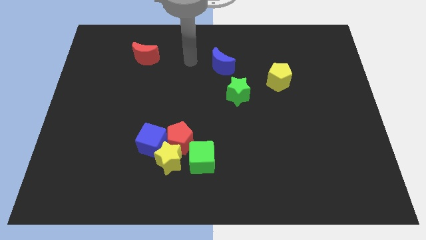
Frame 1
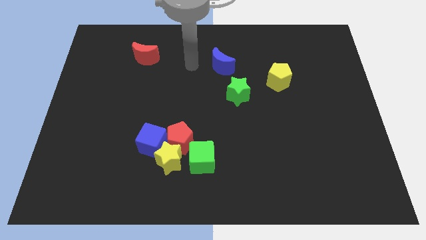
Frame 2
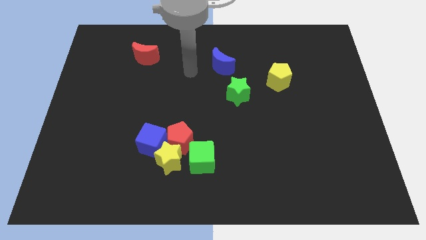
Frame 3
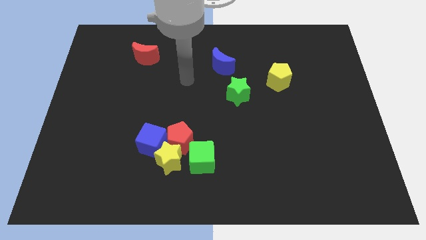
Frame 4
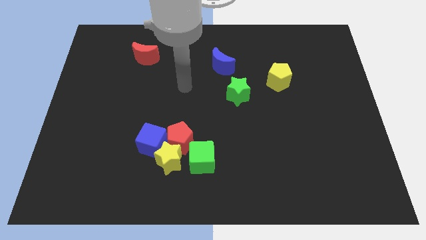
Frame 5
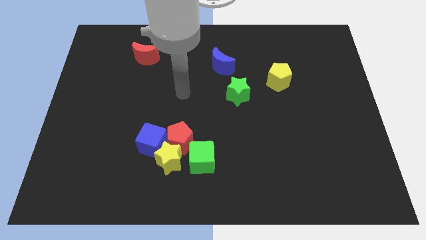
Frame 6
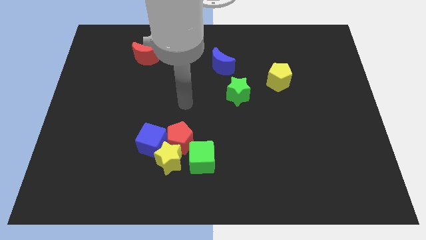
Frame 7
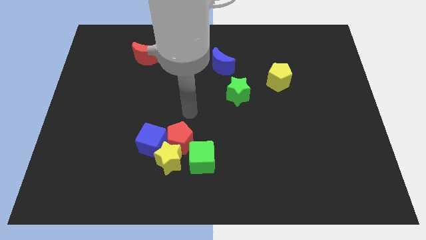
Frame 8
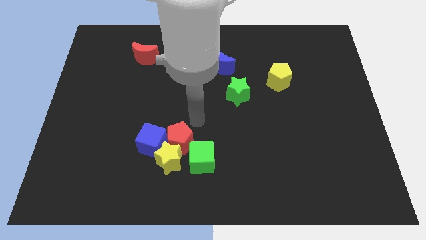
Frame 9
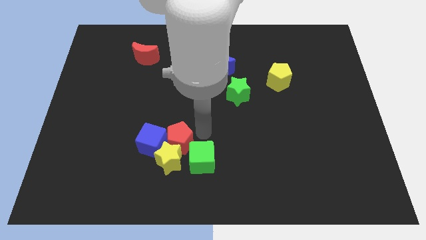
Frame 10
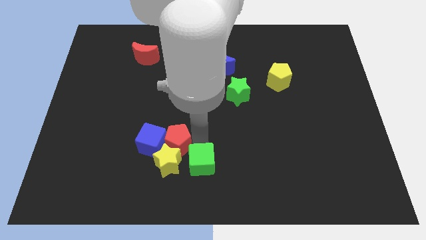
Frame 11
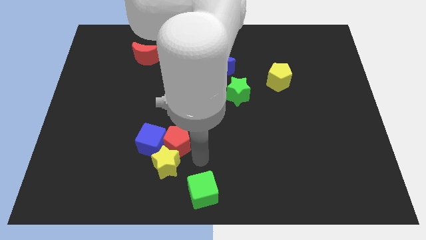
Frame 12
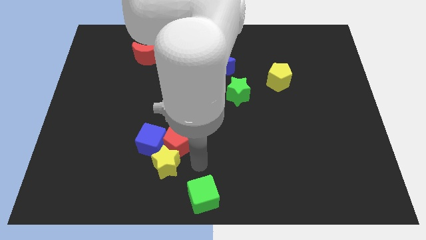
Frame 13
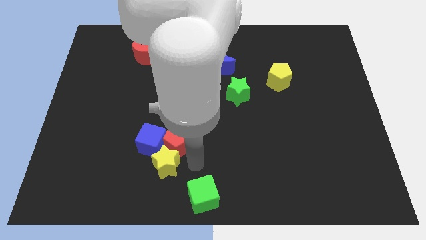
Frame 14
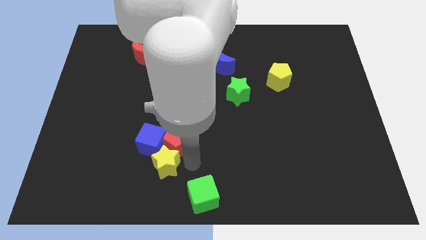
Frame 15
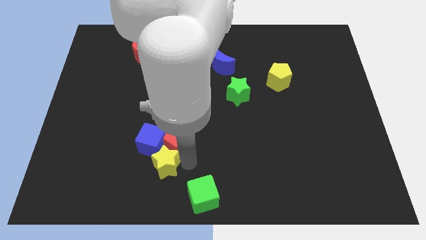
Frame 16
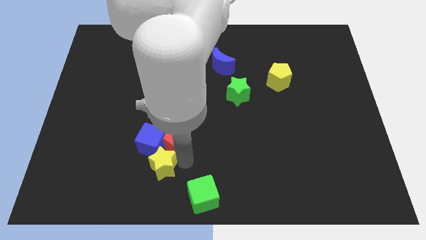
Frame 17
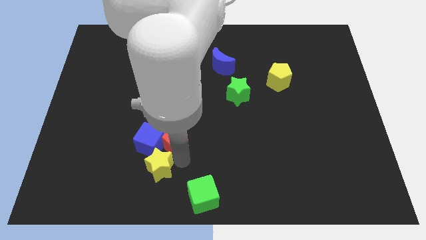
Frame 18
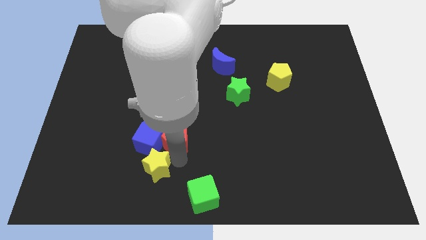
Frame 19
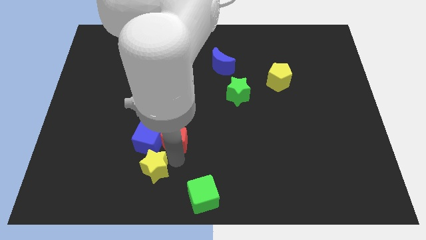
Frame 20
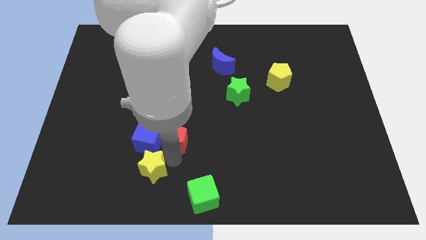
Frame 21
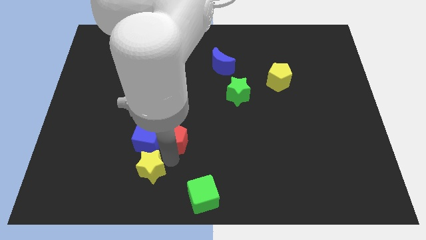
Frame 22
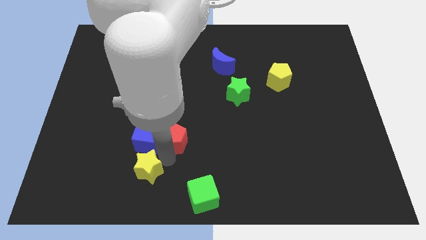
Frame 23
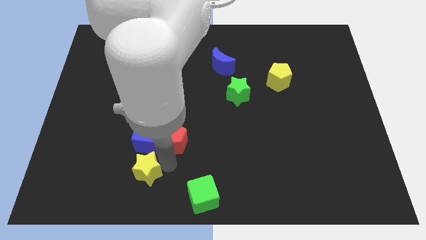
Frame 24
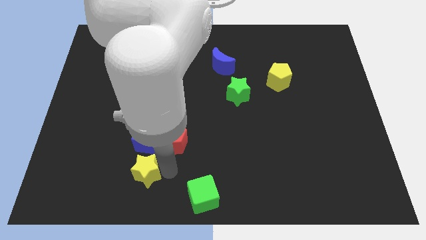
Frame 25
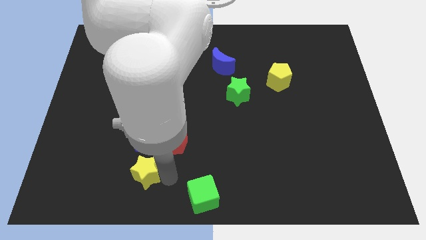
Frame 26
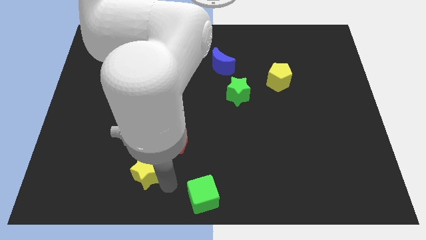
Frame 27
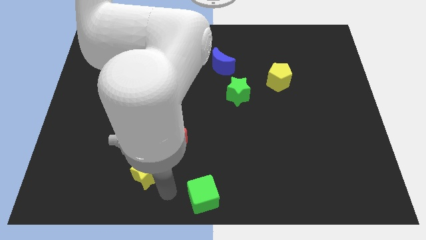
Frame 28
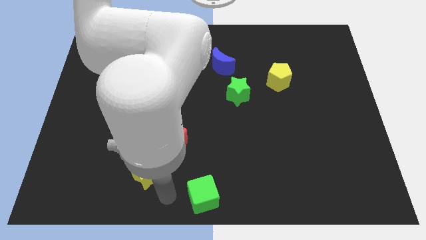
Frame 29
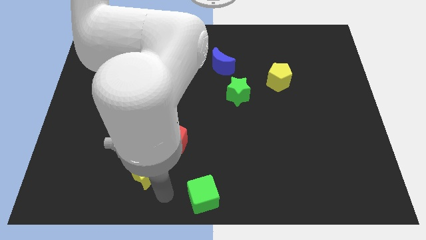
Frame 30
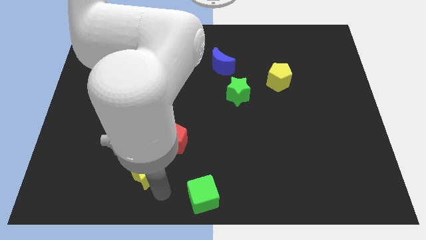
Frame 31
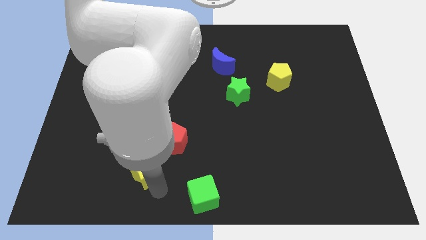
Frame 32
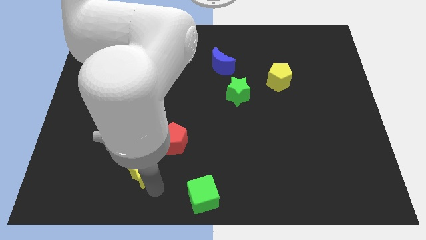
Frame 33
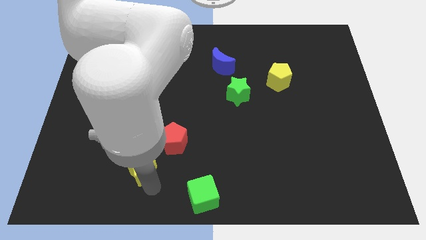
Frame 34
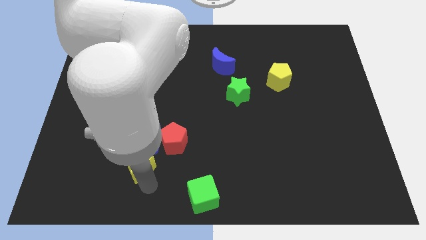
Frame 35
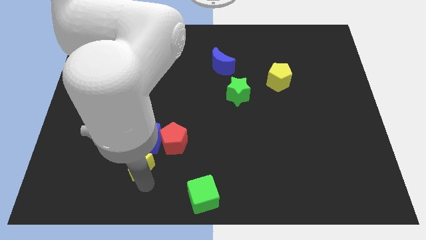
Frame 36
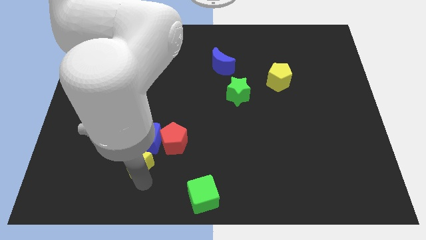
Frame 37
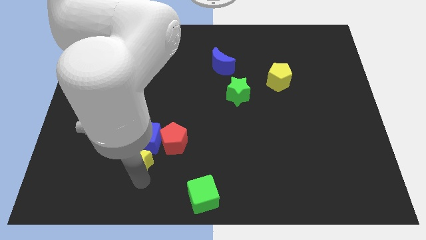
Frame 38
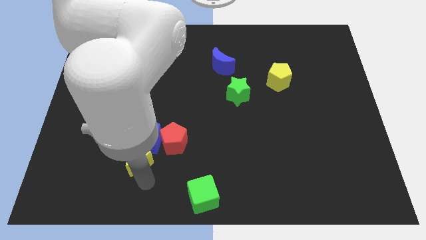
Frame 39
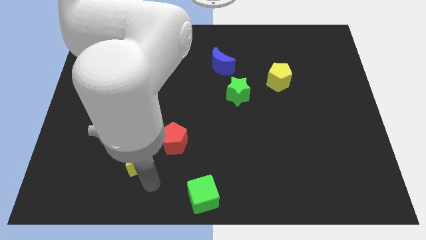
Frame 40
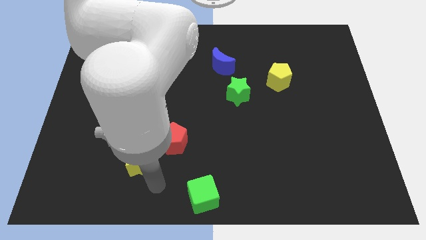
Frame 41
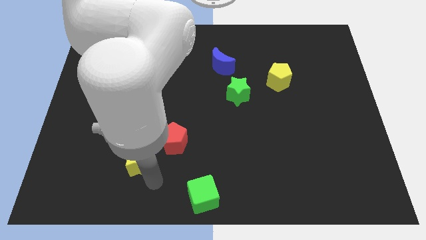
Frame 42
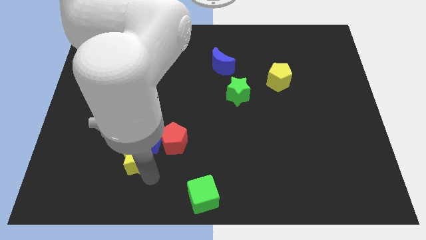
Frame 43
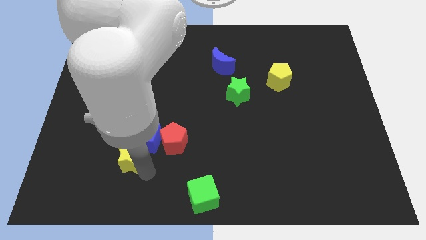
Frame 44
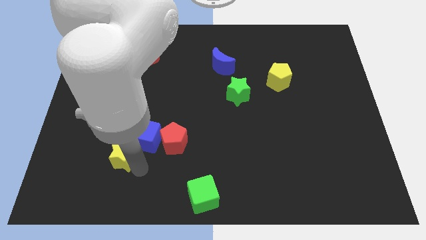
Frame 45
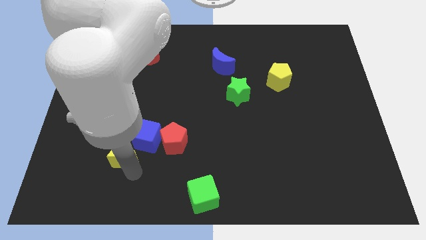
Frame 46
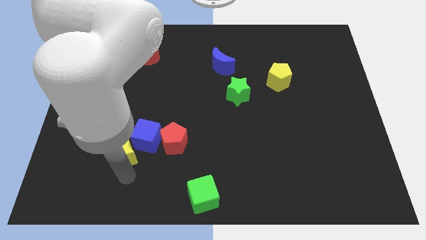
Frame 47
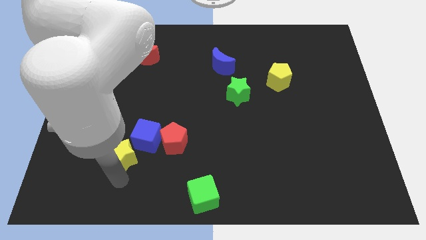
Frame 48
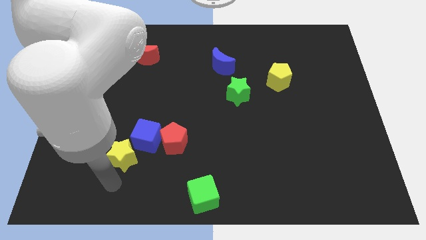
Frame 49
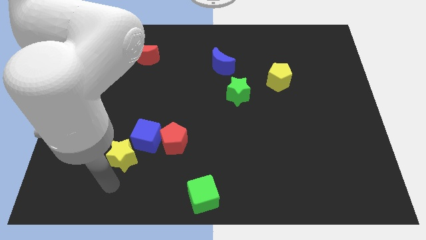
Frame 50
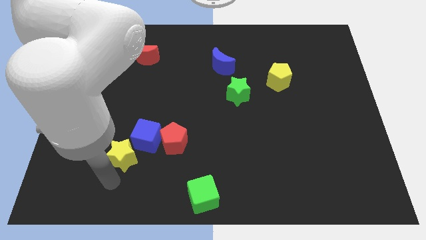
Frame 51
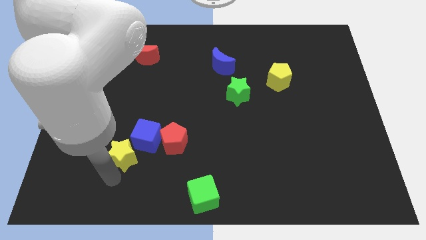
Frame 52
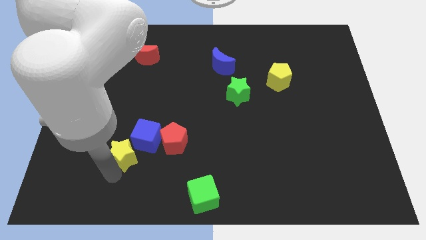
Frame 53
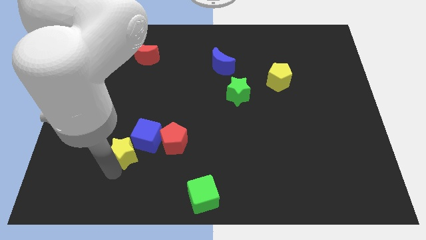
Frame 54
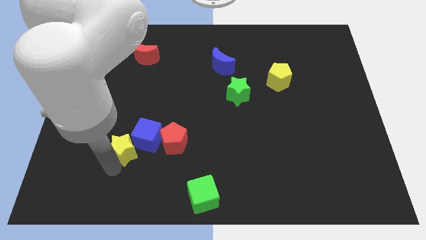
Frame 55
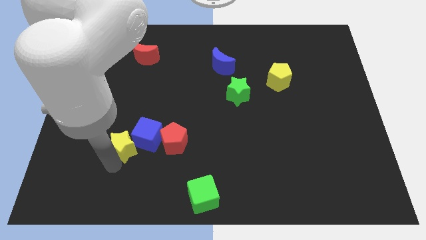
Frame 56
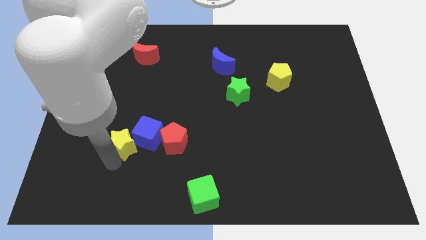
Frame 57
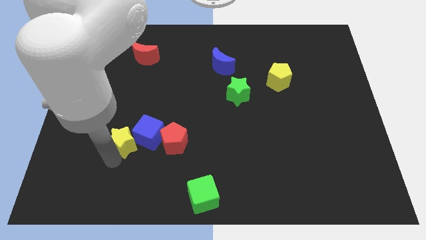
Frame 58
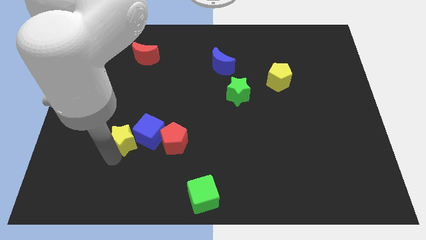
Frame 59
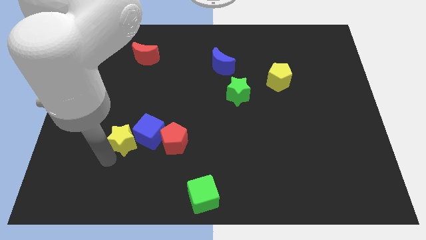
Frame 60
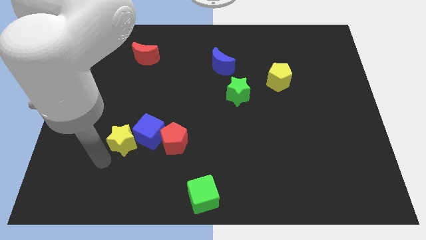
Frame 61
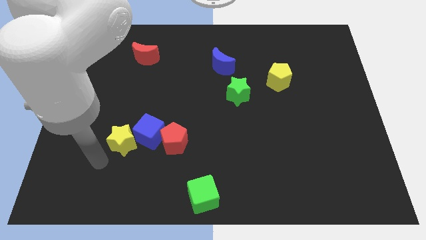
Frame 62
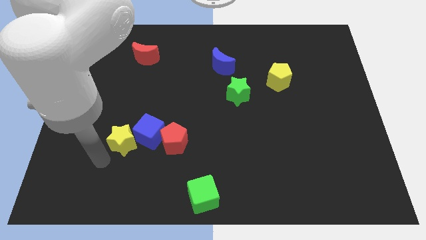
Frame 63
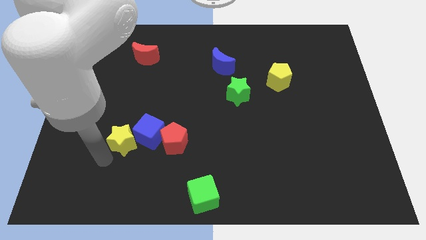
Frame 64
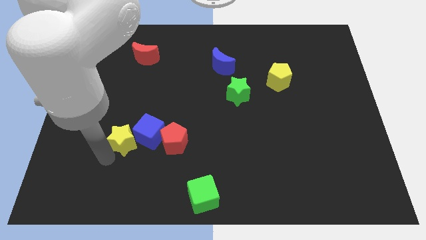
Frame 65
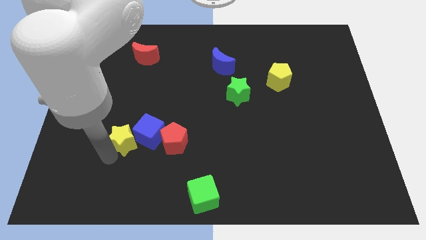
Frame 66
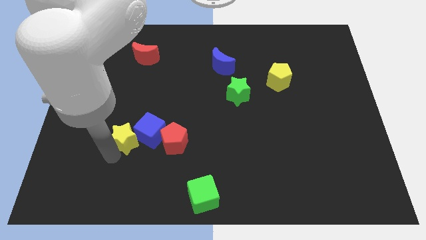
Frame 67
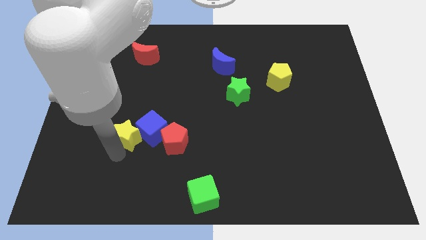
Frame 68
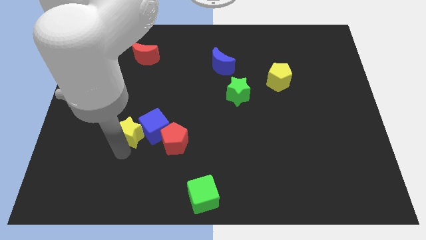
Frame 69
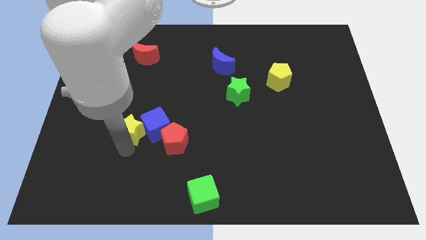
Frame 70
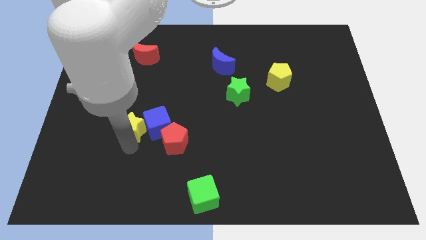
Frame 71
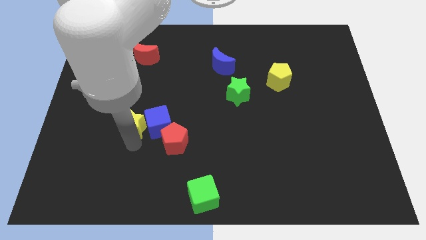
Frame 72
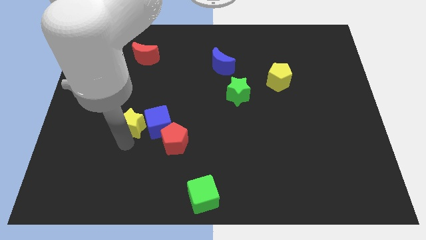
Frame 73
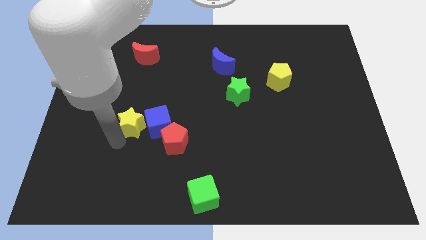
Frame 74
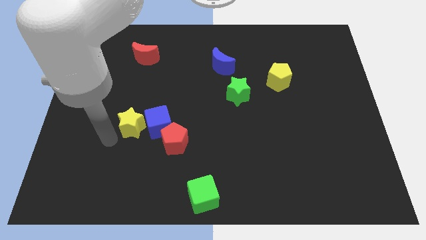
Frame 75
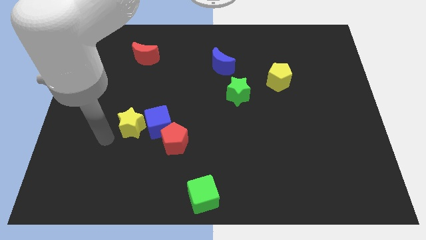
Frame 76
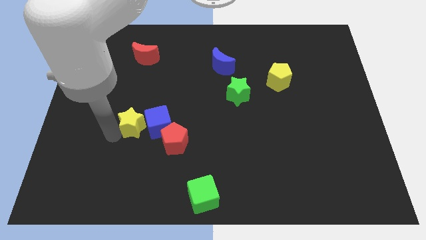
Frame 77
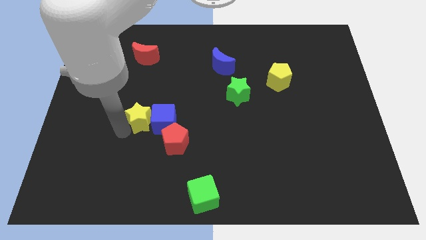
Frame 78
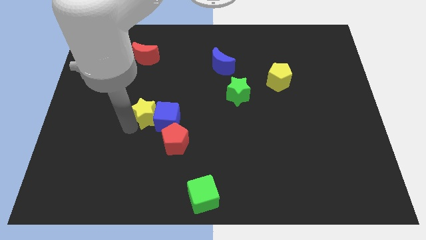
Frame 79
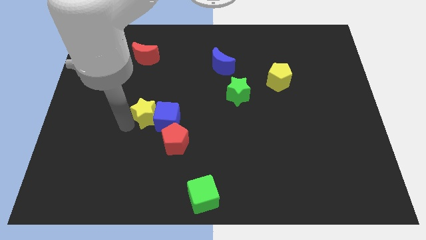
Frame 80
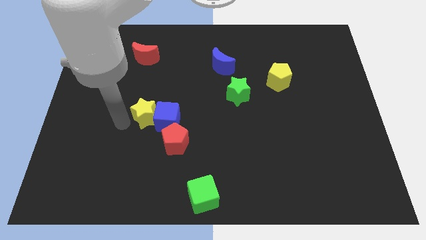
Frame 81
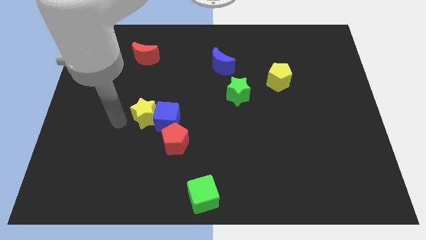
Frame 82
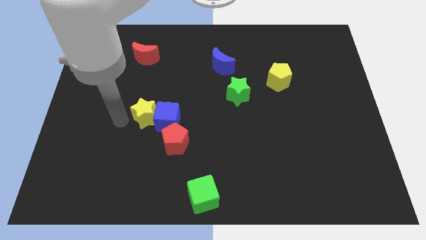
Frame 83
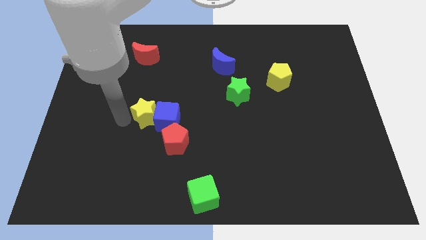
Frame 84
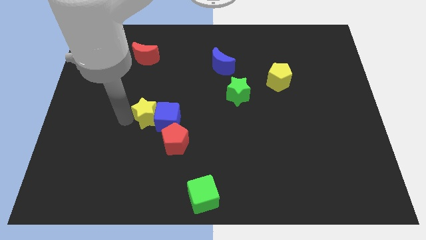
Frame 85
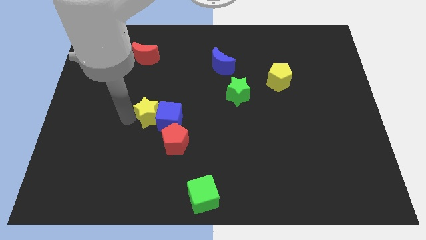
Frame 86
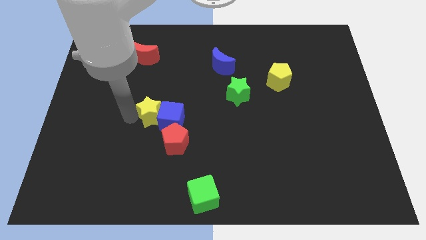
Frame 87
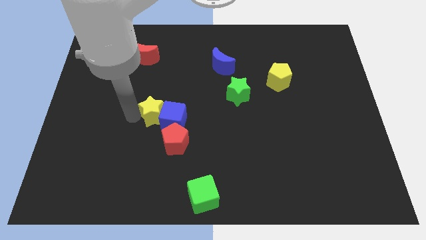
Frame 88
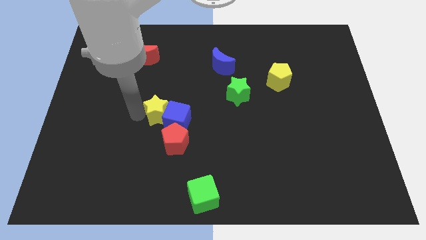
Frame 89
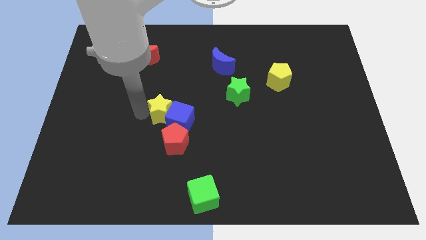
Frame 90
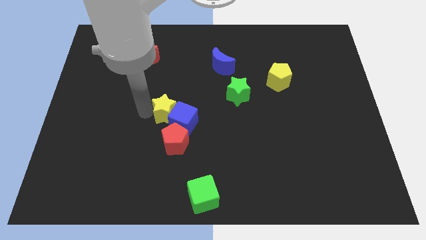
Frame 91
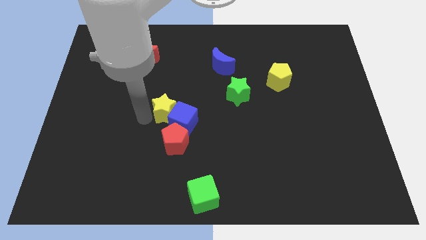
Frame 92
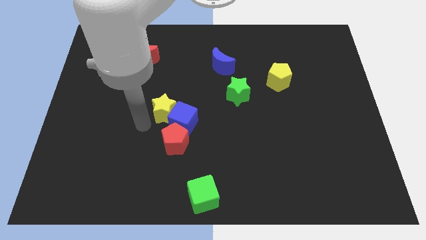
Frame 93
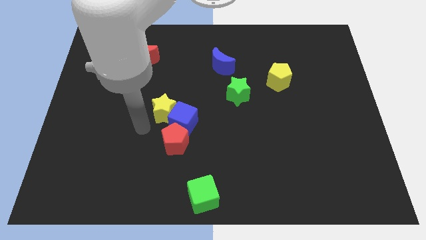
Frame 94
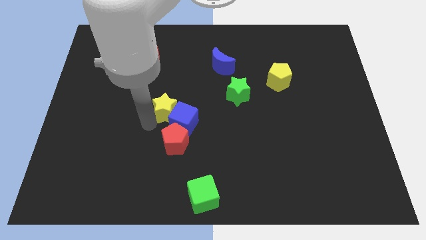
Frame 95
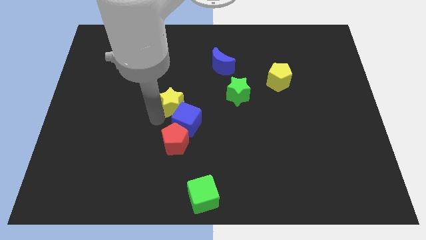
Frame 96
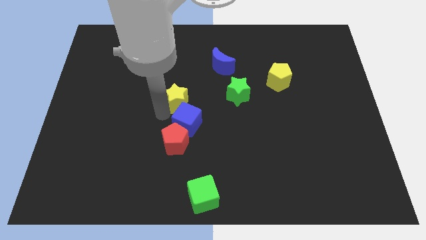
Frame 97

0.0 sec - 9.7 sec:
slide the yellow star to the left side of the green star
